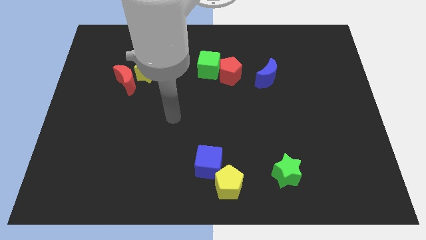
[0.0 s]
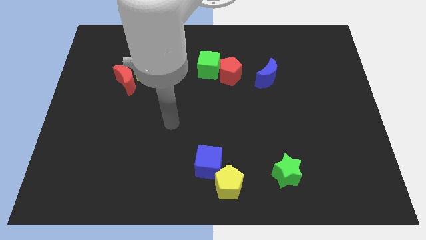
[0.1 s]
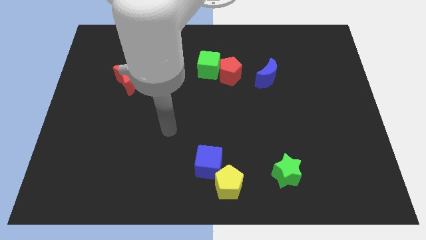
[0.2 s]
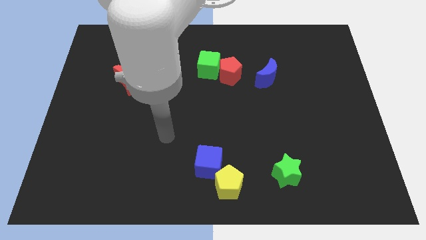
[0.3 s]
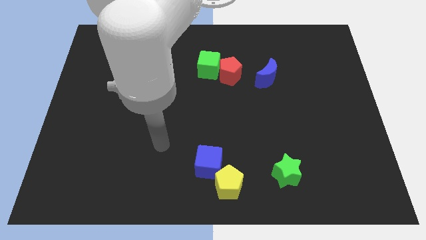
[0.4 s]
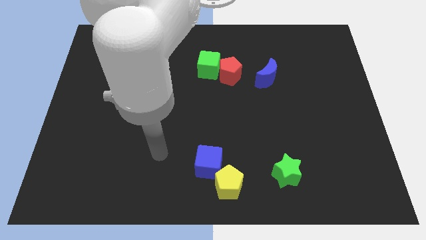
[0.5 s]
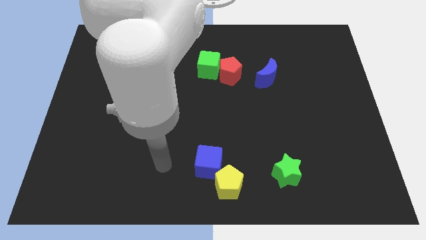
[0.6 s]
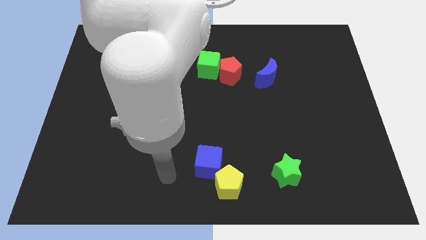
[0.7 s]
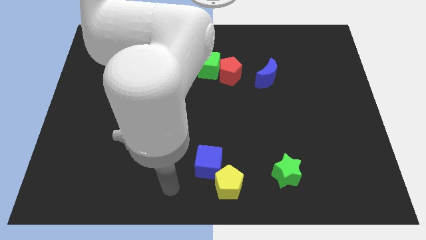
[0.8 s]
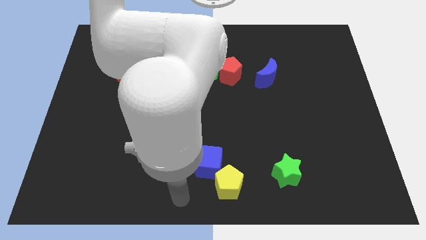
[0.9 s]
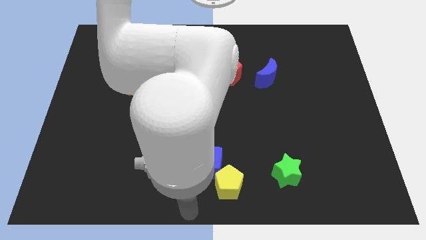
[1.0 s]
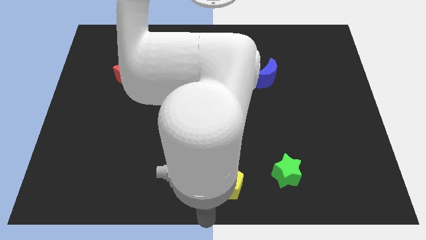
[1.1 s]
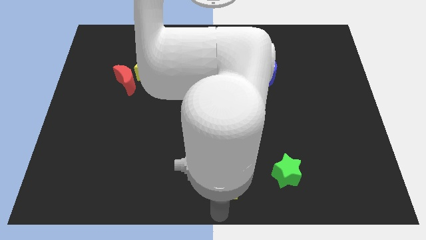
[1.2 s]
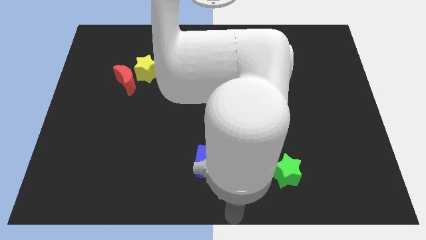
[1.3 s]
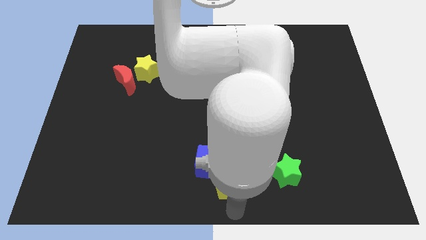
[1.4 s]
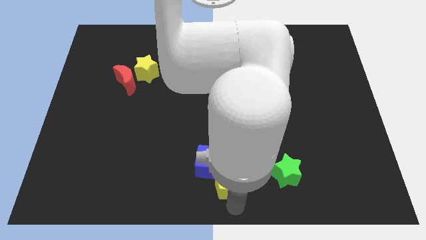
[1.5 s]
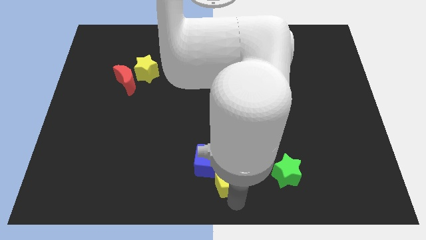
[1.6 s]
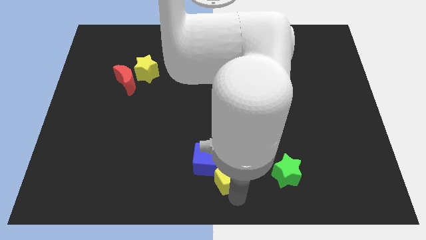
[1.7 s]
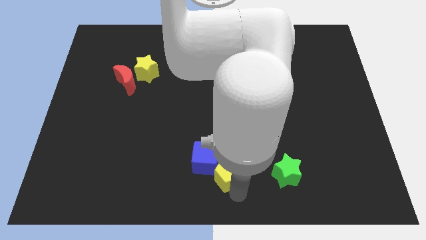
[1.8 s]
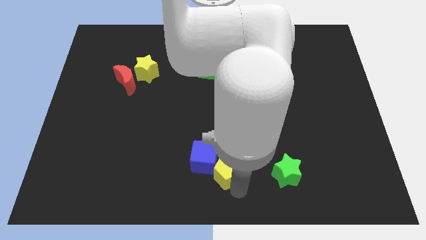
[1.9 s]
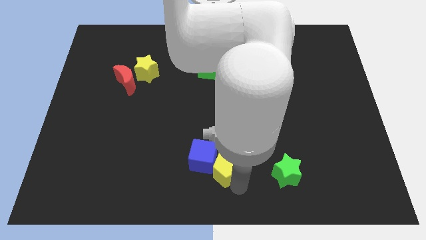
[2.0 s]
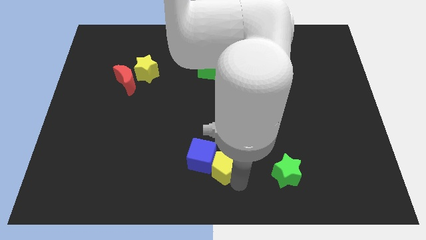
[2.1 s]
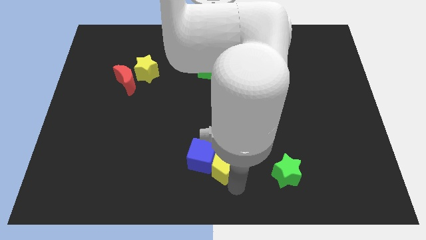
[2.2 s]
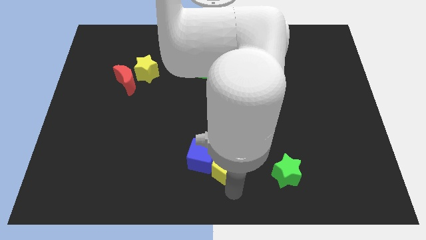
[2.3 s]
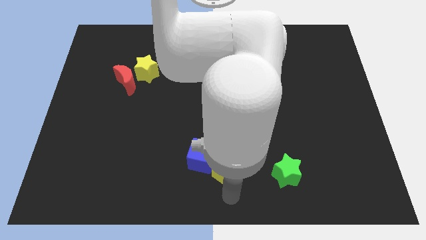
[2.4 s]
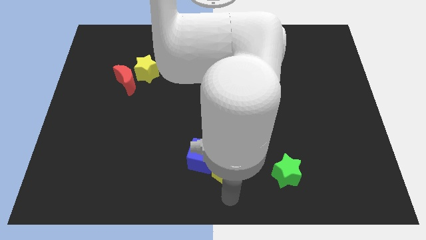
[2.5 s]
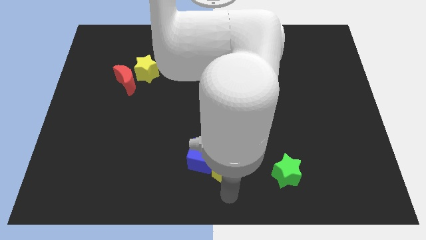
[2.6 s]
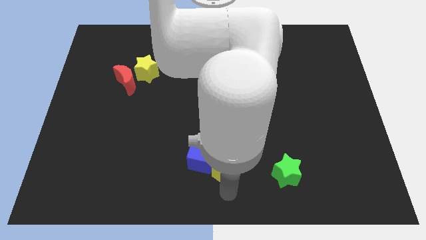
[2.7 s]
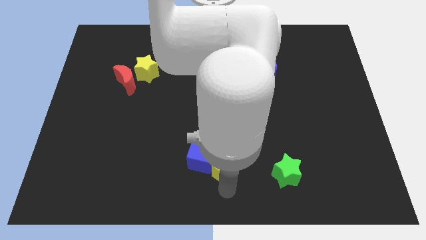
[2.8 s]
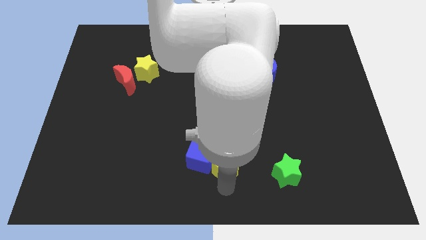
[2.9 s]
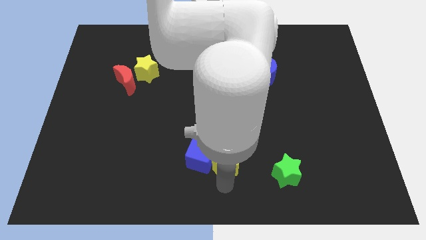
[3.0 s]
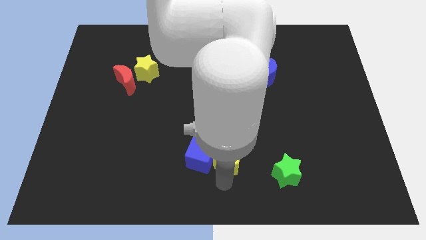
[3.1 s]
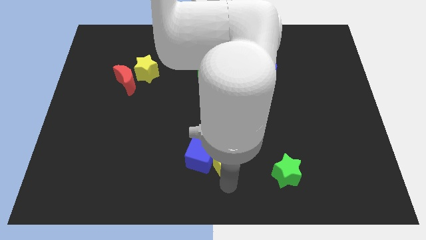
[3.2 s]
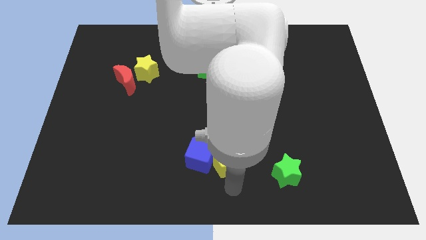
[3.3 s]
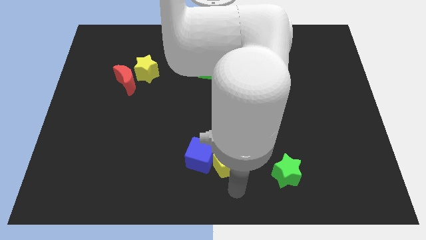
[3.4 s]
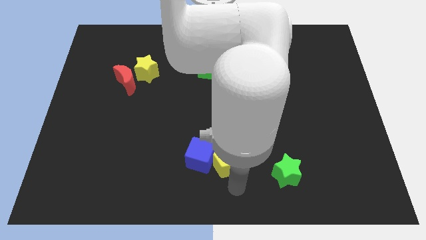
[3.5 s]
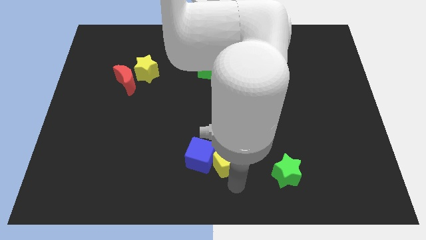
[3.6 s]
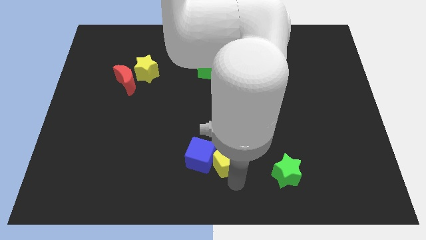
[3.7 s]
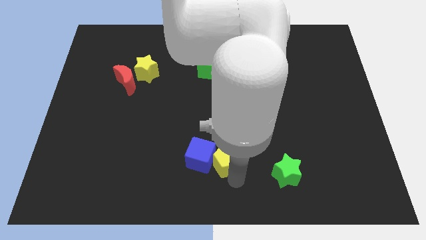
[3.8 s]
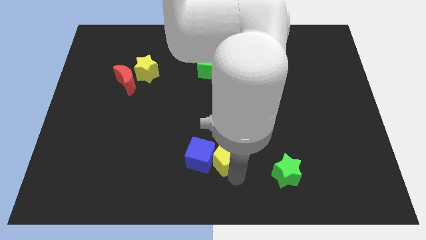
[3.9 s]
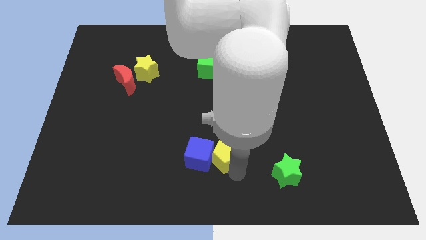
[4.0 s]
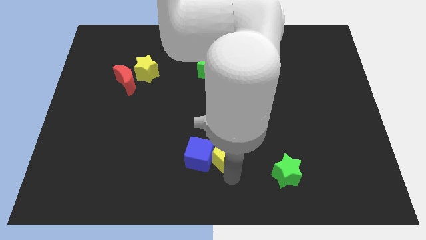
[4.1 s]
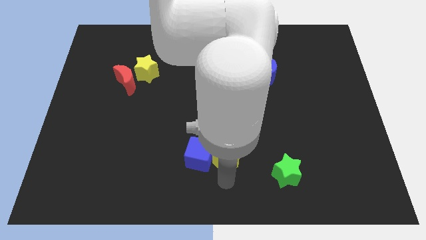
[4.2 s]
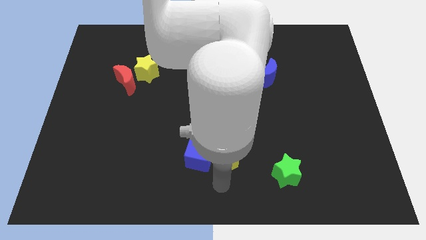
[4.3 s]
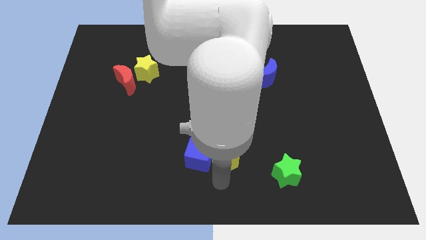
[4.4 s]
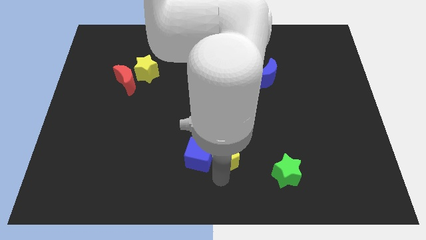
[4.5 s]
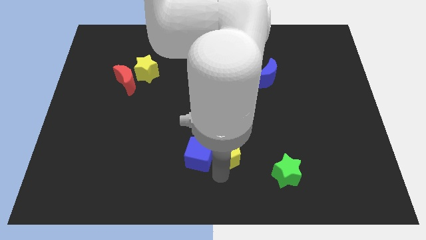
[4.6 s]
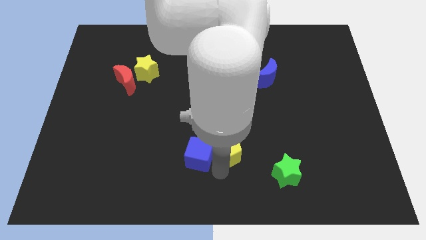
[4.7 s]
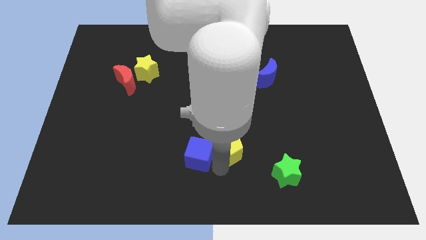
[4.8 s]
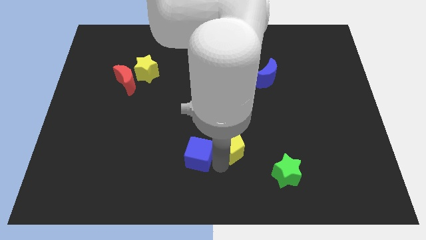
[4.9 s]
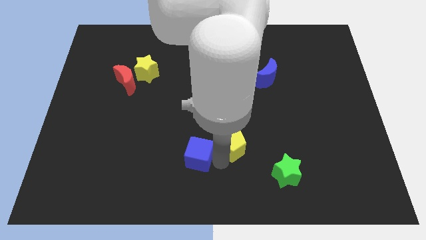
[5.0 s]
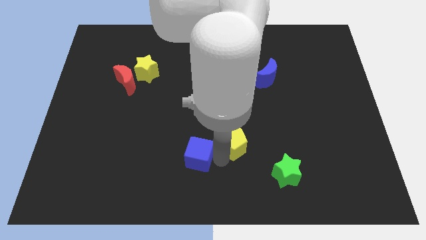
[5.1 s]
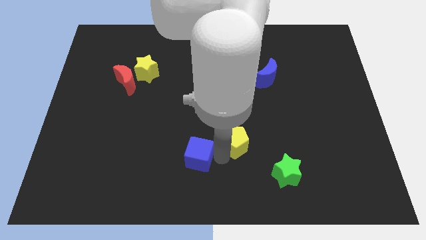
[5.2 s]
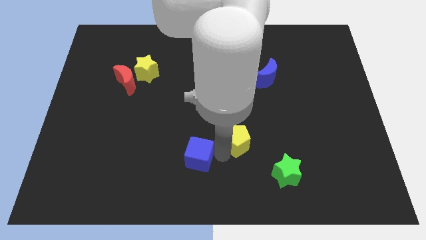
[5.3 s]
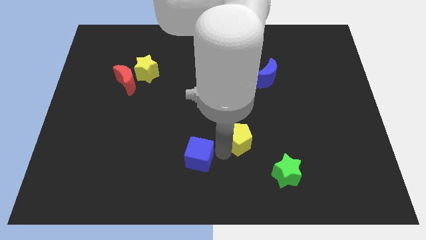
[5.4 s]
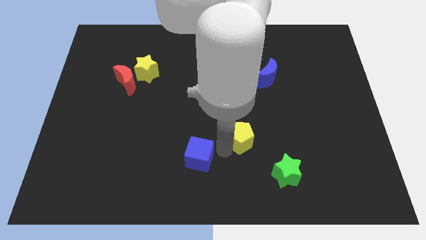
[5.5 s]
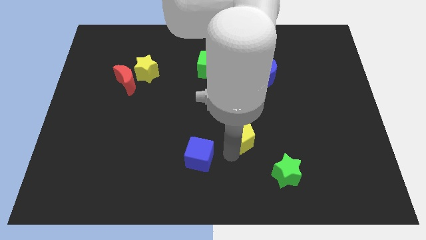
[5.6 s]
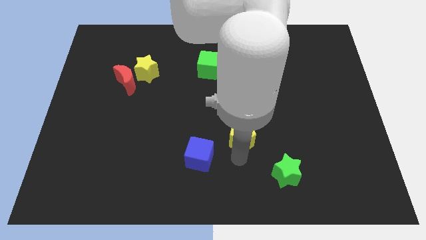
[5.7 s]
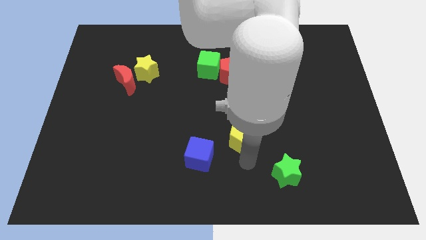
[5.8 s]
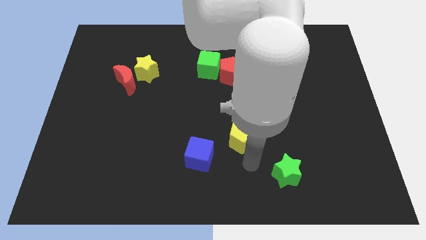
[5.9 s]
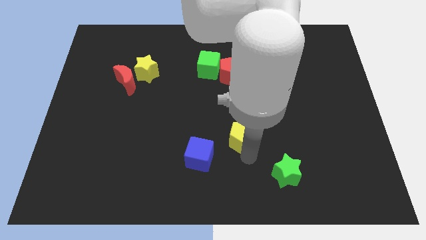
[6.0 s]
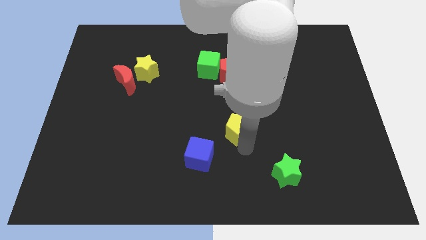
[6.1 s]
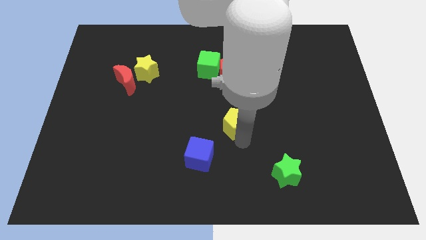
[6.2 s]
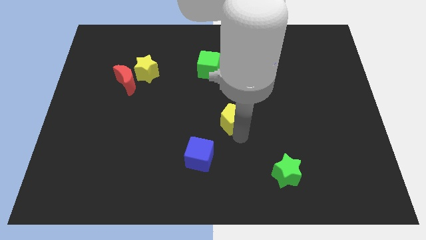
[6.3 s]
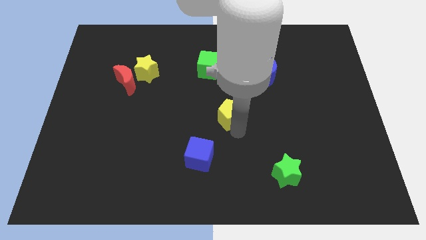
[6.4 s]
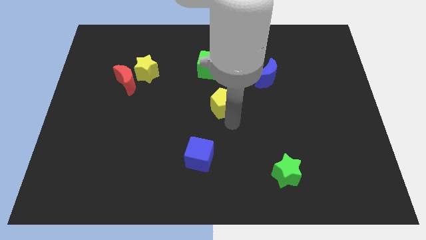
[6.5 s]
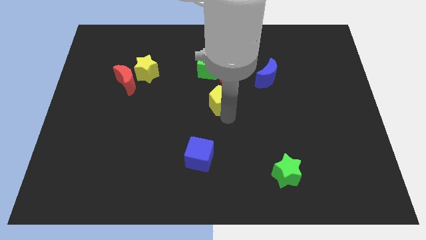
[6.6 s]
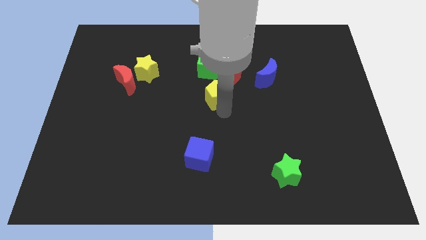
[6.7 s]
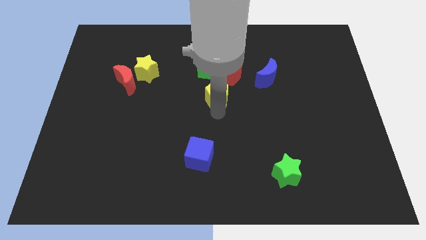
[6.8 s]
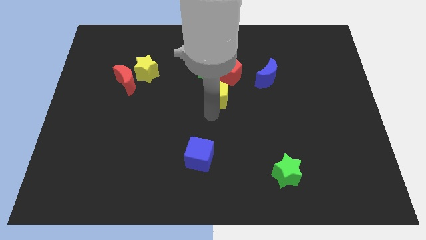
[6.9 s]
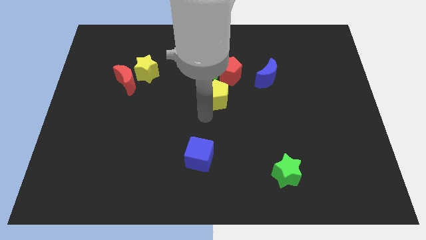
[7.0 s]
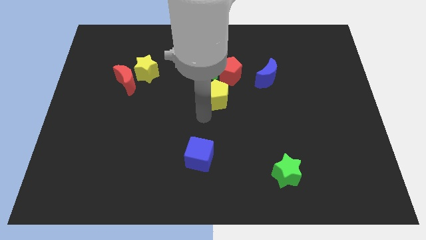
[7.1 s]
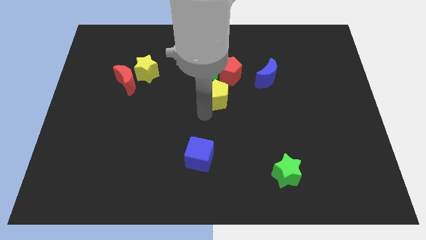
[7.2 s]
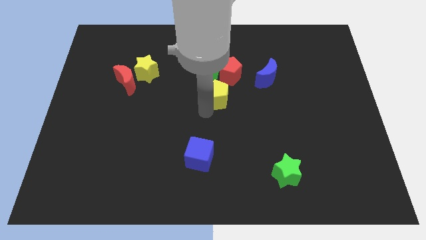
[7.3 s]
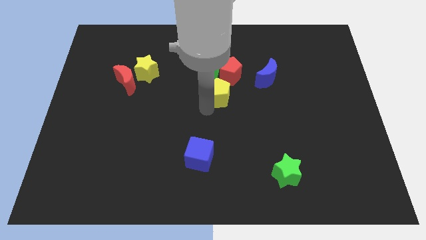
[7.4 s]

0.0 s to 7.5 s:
put the yellow pentagon to the bottom right of the green cube
